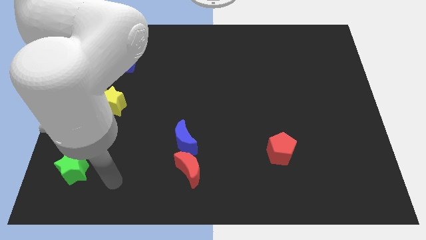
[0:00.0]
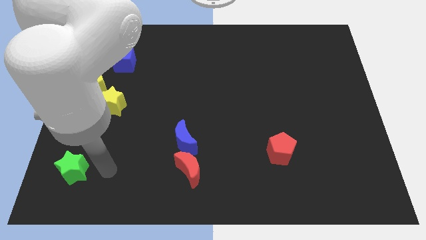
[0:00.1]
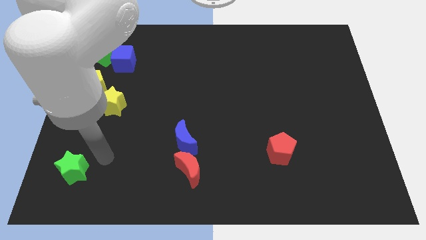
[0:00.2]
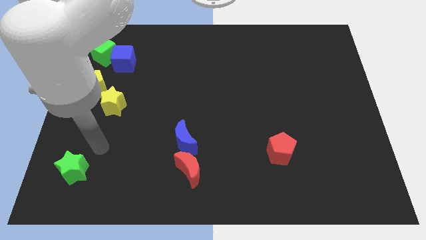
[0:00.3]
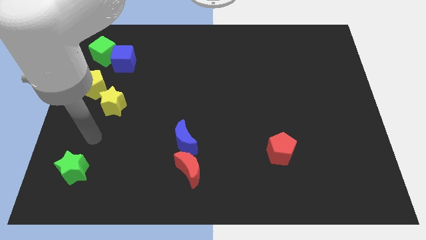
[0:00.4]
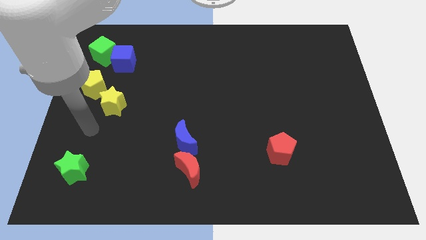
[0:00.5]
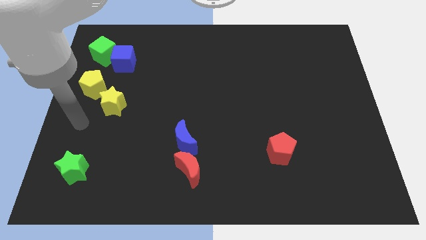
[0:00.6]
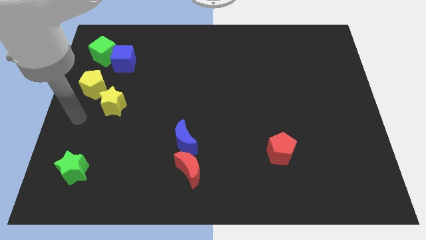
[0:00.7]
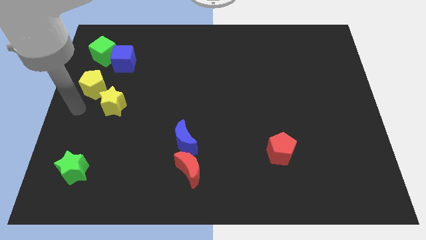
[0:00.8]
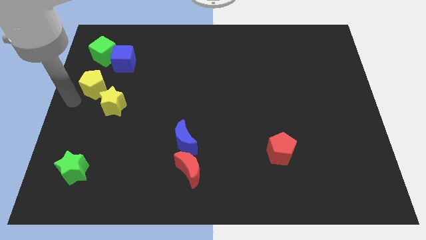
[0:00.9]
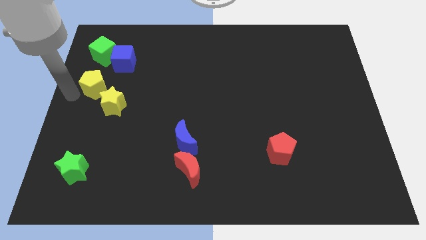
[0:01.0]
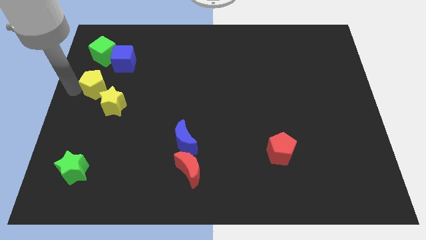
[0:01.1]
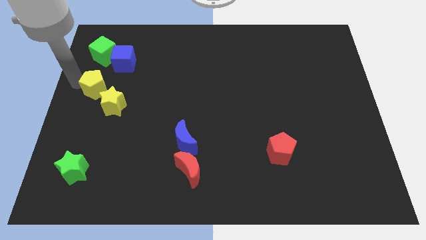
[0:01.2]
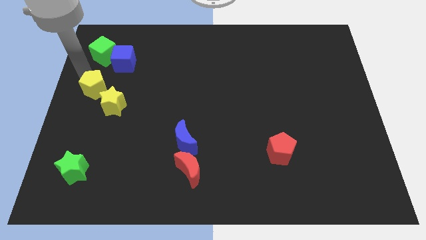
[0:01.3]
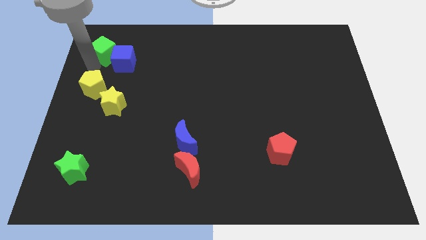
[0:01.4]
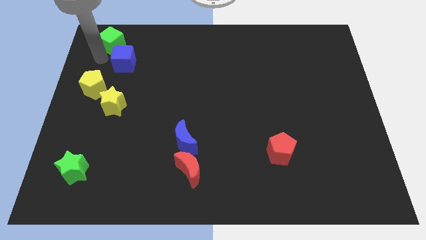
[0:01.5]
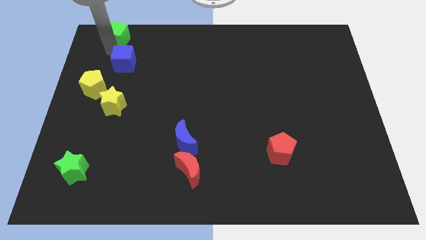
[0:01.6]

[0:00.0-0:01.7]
move the blue cube away from the green cube

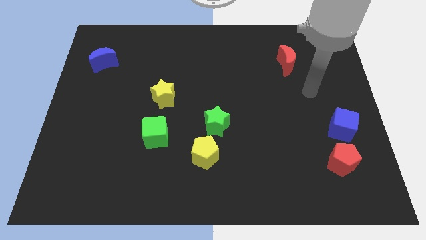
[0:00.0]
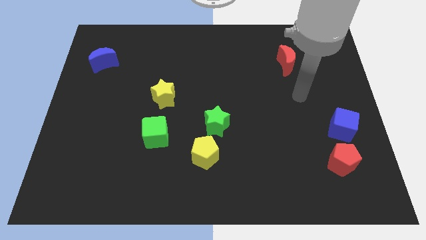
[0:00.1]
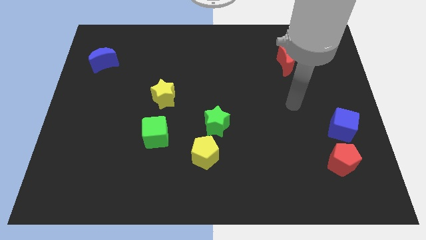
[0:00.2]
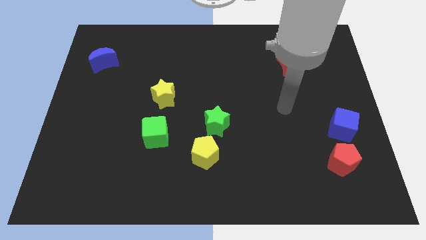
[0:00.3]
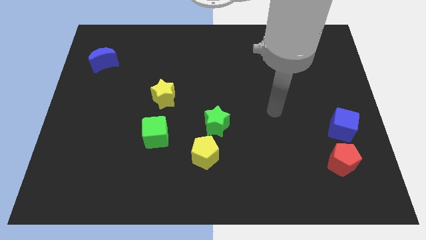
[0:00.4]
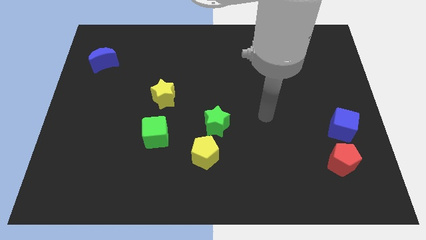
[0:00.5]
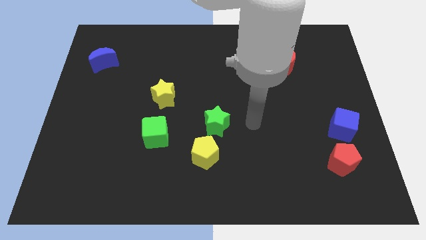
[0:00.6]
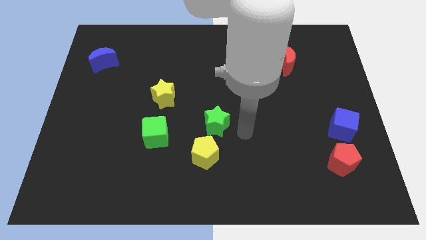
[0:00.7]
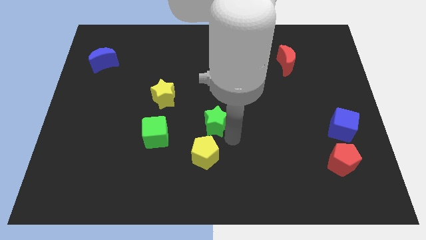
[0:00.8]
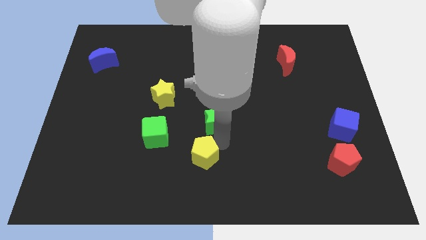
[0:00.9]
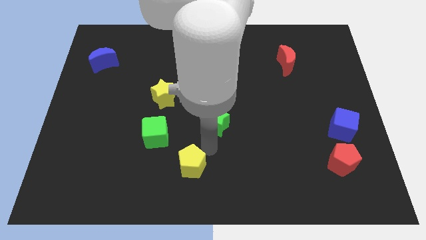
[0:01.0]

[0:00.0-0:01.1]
move the green star away from the yellow pentagon

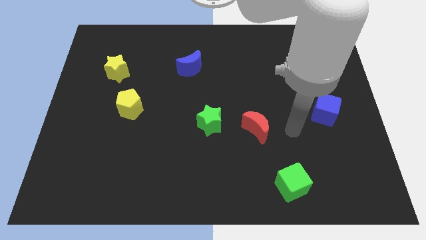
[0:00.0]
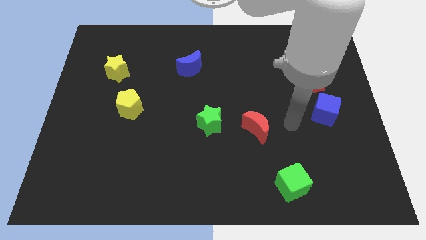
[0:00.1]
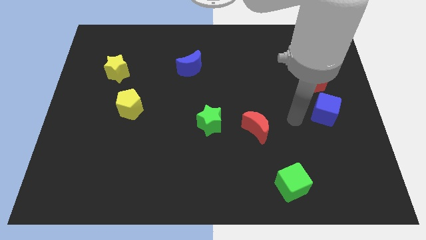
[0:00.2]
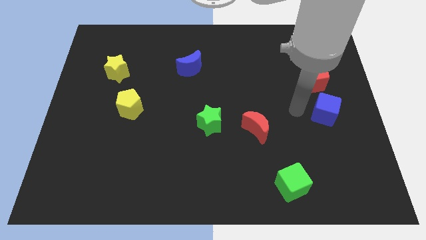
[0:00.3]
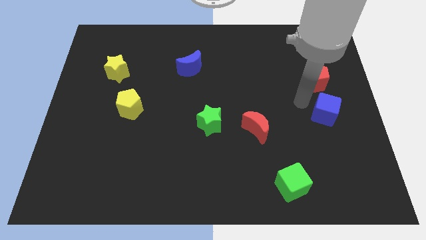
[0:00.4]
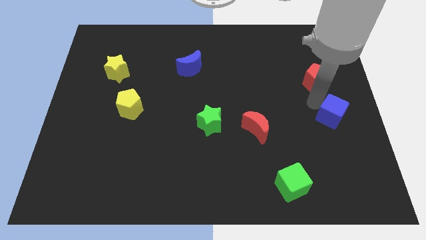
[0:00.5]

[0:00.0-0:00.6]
separate the red pentagon from the blue cube

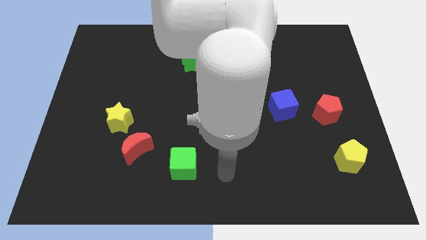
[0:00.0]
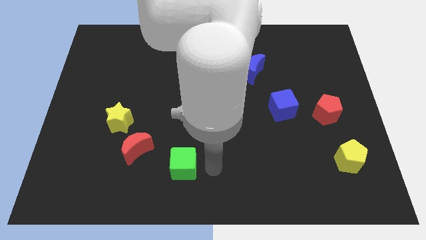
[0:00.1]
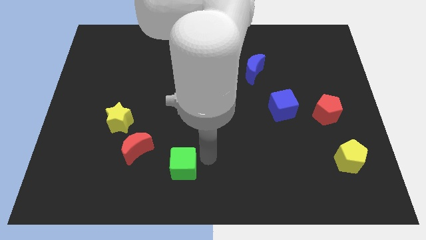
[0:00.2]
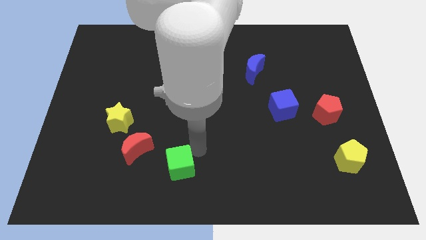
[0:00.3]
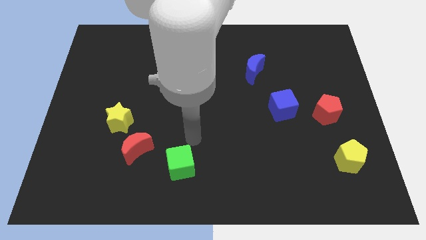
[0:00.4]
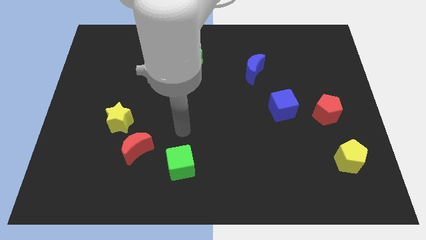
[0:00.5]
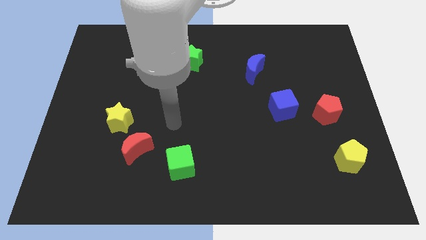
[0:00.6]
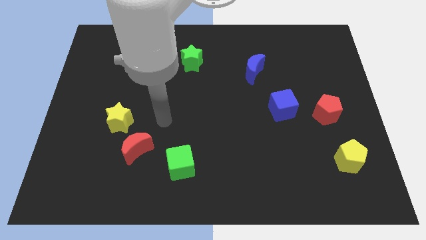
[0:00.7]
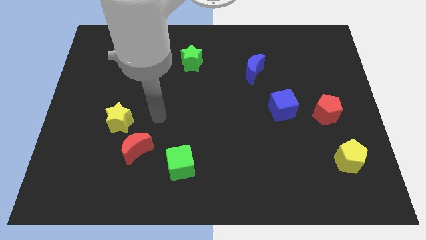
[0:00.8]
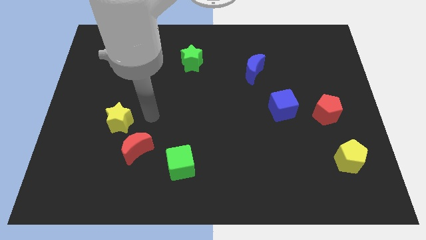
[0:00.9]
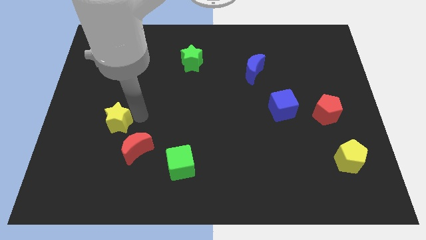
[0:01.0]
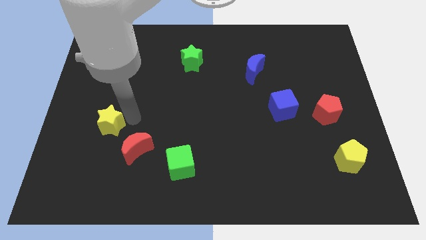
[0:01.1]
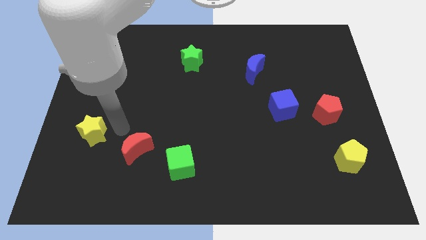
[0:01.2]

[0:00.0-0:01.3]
move the red moon away from the yellow star

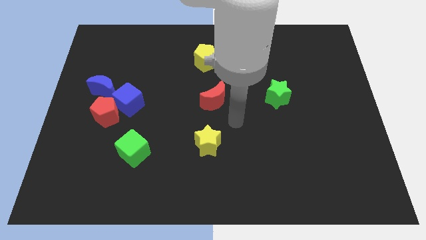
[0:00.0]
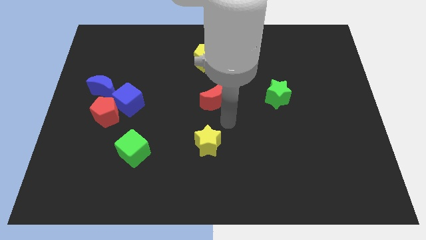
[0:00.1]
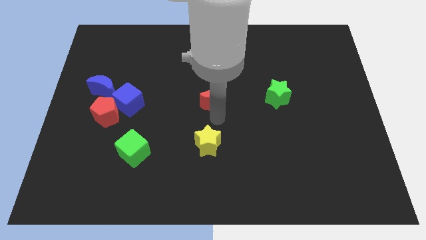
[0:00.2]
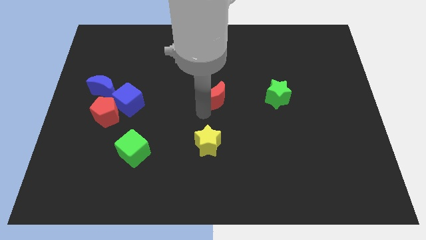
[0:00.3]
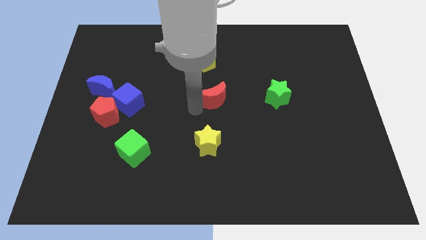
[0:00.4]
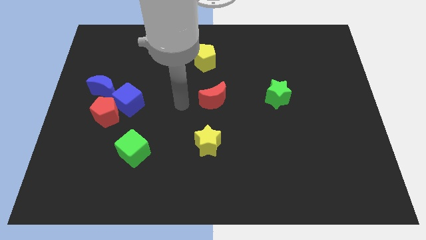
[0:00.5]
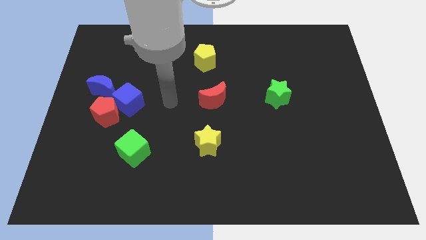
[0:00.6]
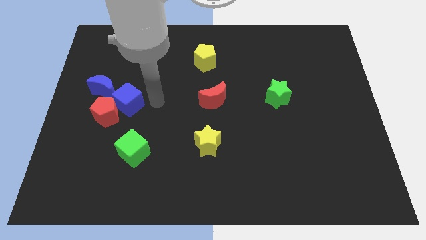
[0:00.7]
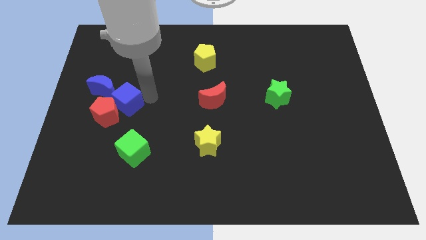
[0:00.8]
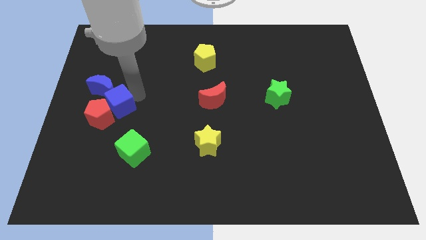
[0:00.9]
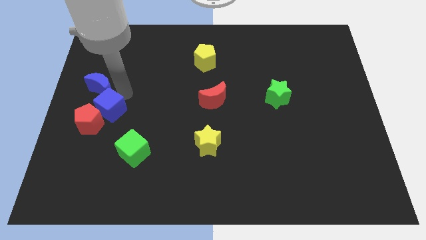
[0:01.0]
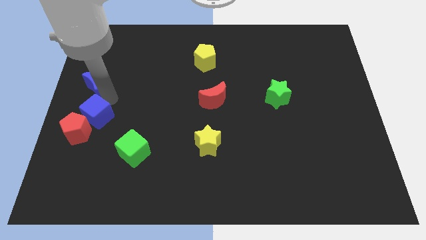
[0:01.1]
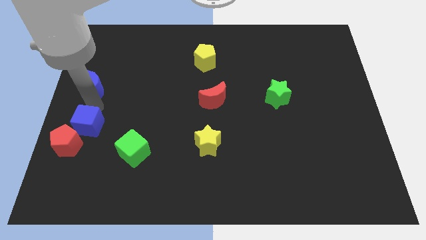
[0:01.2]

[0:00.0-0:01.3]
move the red pentagon away from the blue cube and blue moon

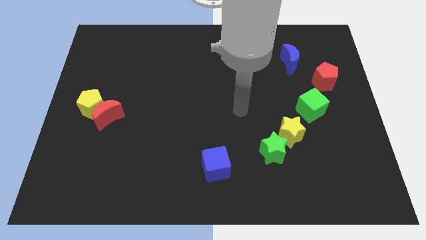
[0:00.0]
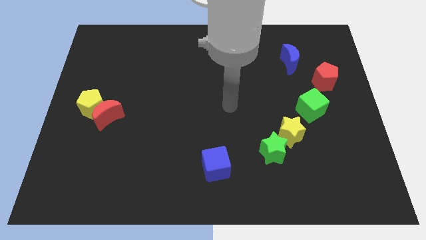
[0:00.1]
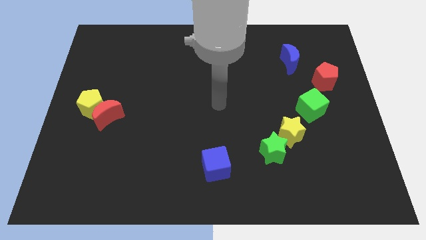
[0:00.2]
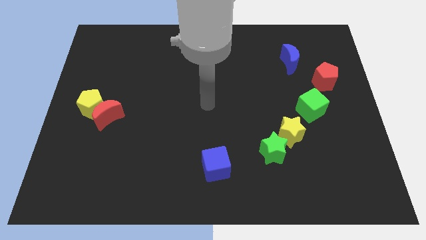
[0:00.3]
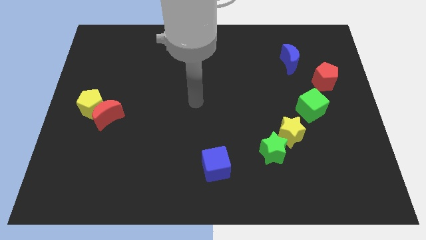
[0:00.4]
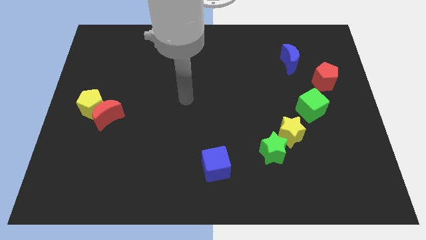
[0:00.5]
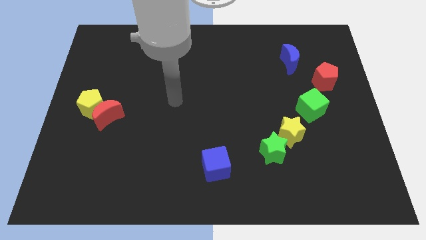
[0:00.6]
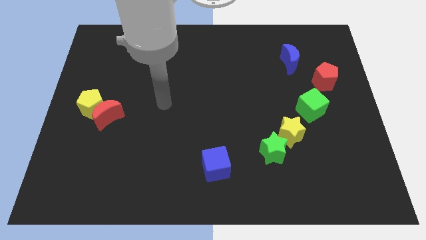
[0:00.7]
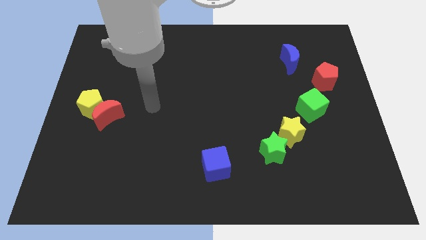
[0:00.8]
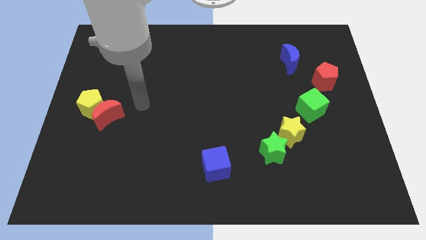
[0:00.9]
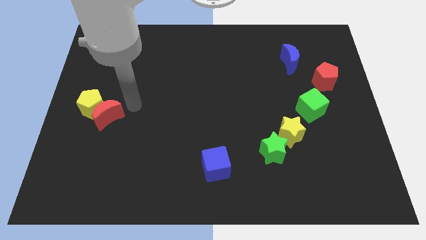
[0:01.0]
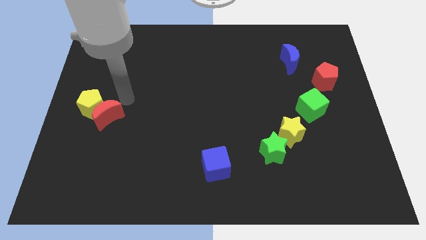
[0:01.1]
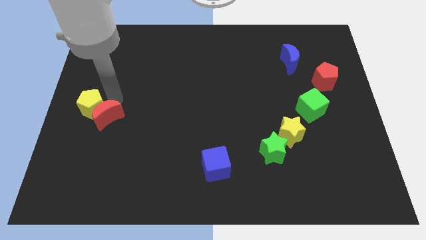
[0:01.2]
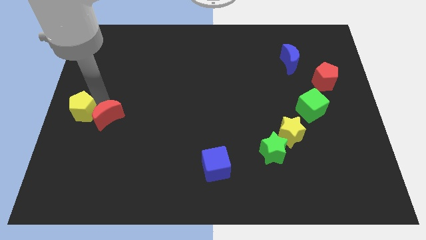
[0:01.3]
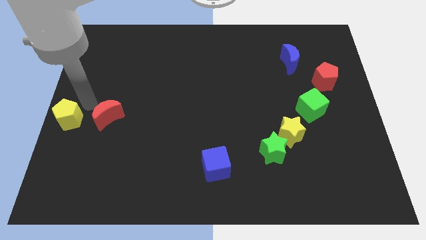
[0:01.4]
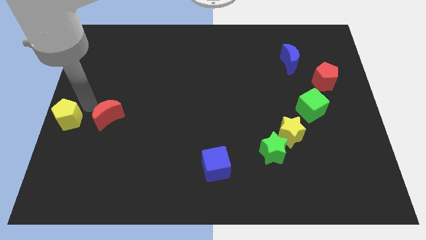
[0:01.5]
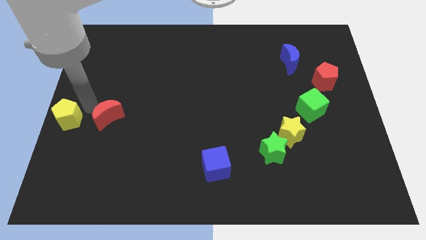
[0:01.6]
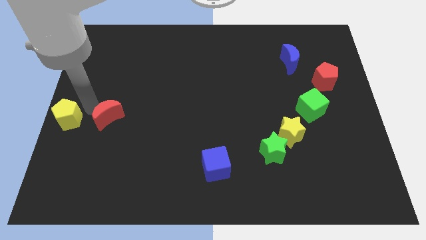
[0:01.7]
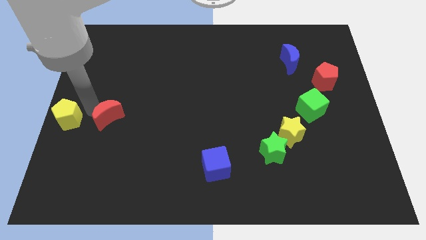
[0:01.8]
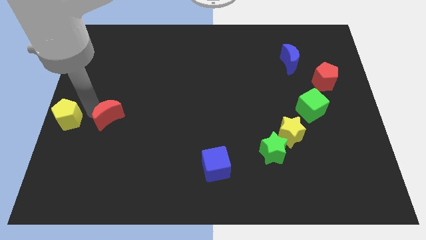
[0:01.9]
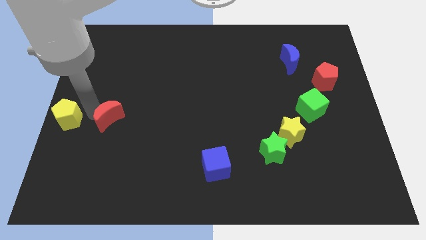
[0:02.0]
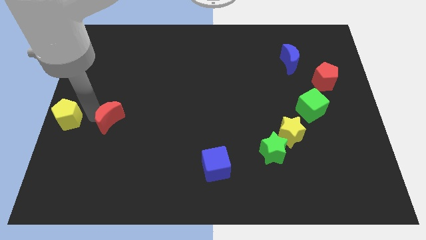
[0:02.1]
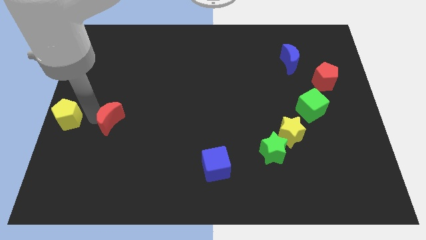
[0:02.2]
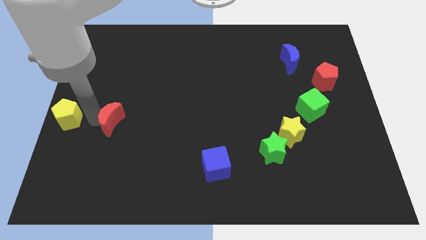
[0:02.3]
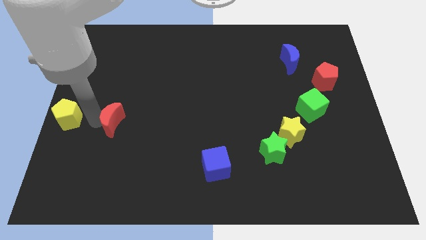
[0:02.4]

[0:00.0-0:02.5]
pull the red moon apart from the yellow pentagon

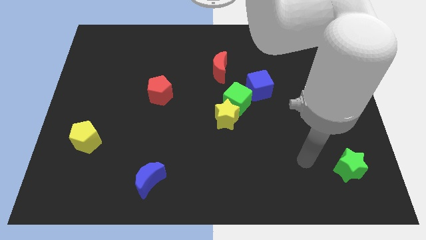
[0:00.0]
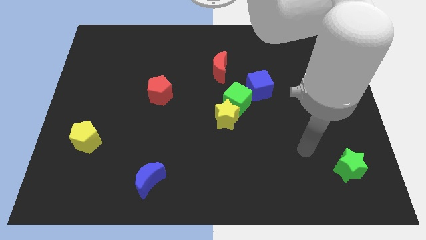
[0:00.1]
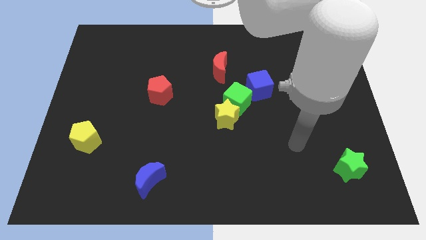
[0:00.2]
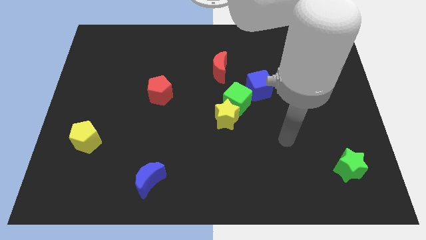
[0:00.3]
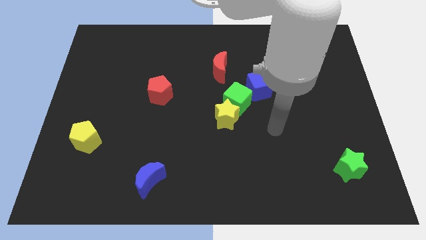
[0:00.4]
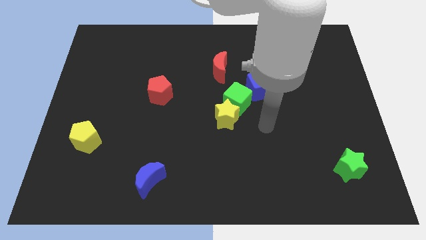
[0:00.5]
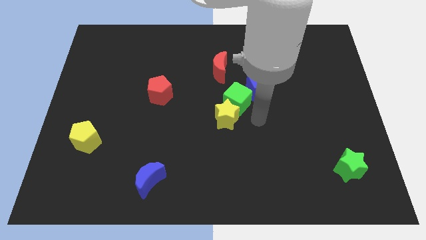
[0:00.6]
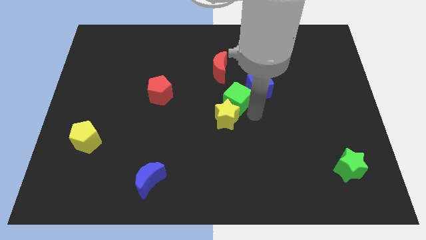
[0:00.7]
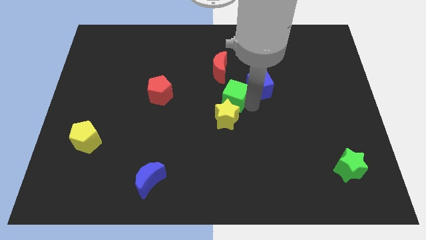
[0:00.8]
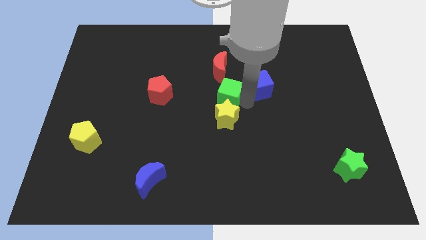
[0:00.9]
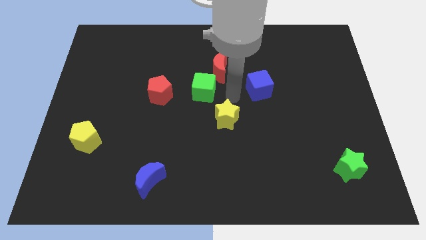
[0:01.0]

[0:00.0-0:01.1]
move the yellow star away from the green cube
